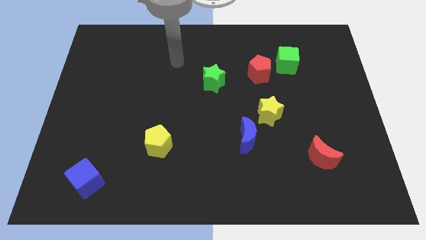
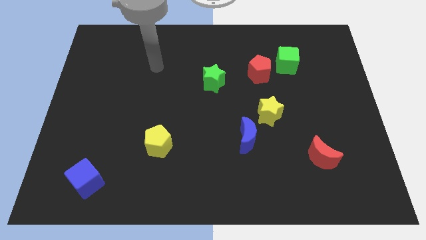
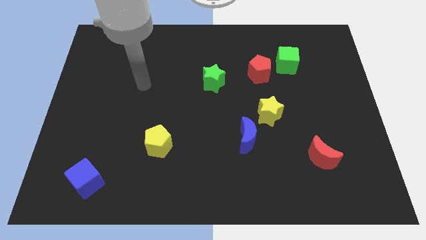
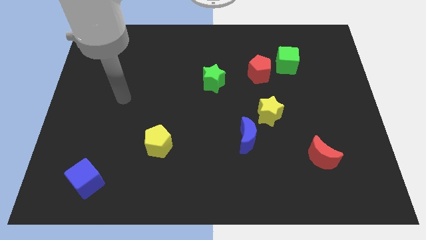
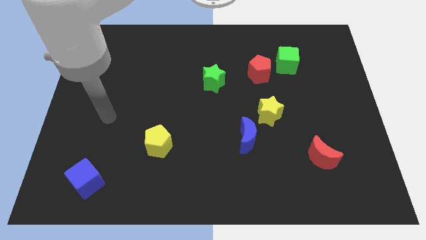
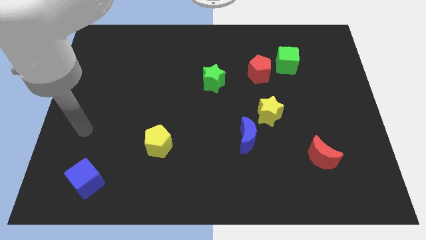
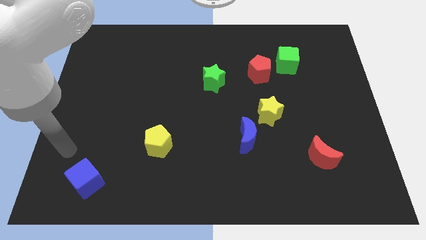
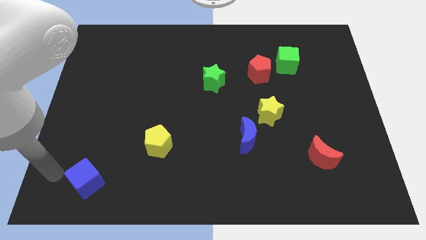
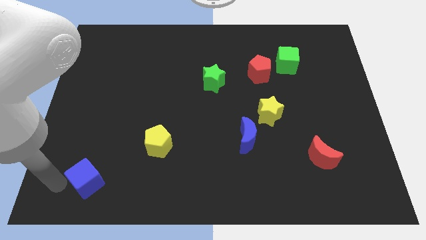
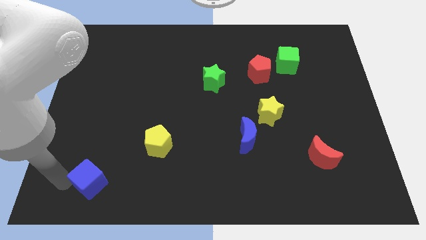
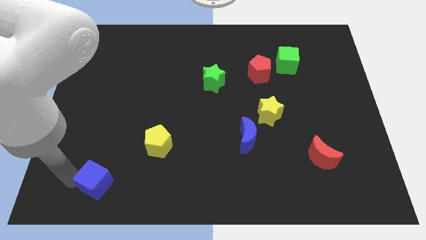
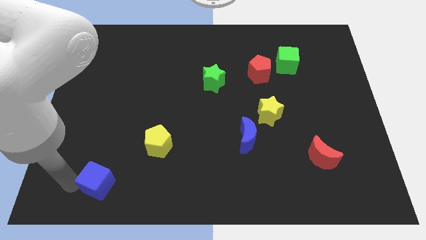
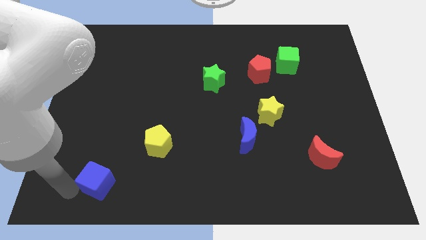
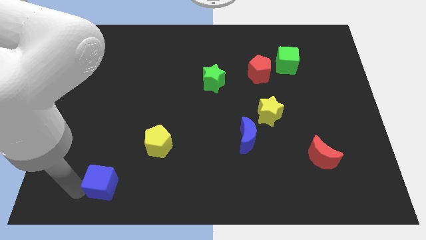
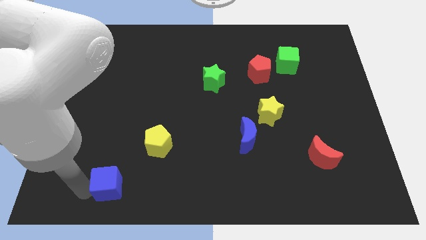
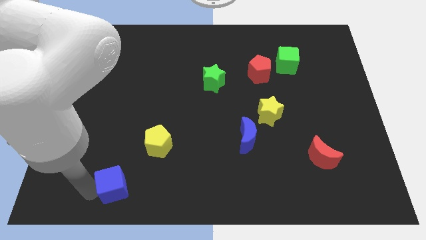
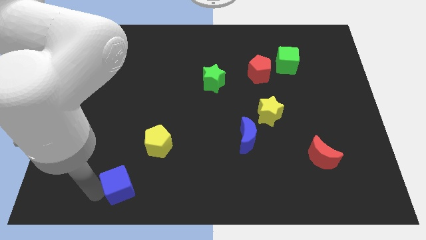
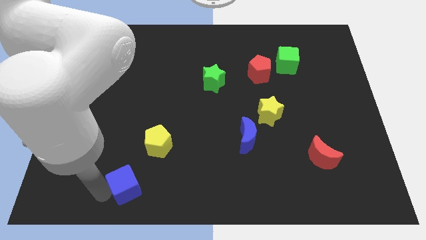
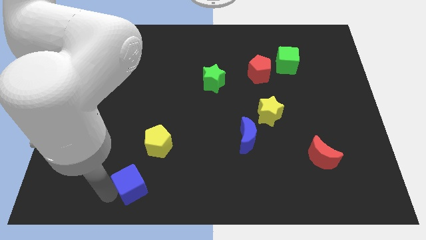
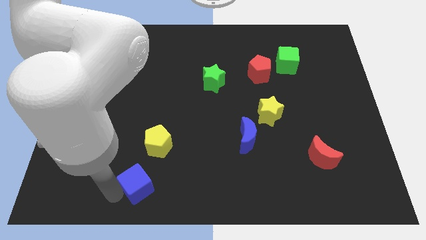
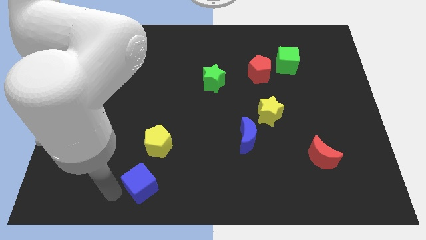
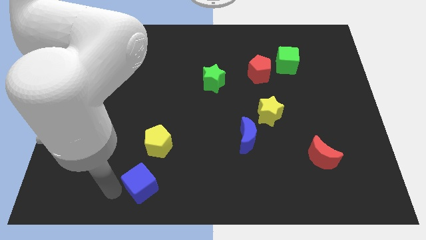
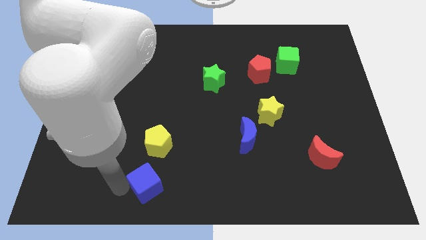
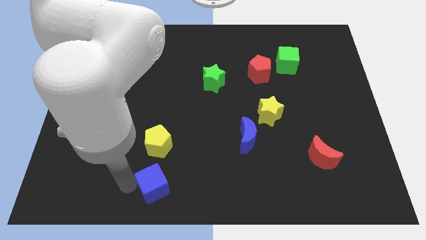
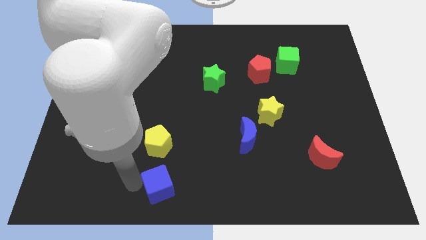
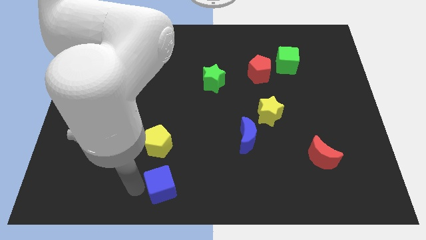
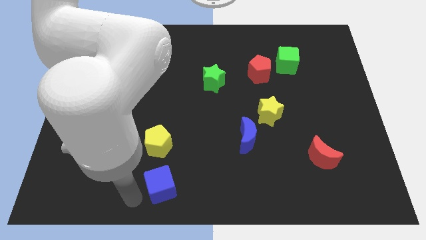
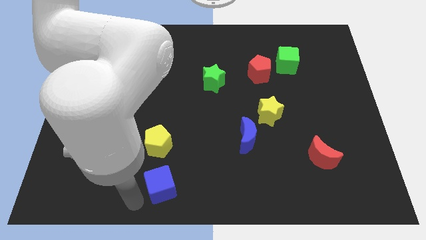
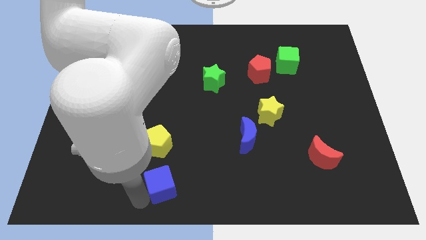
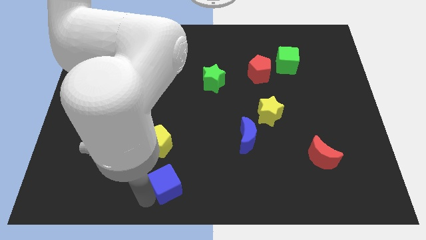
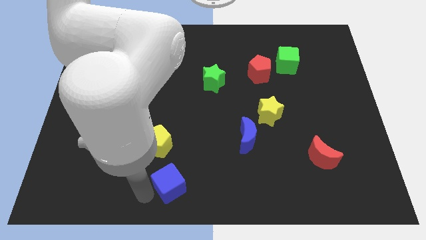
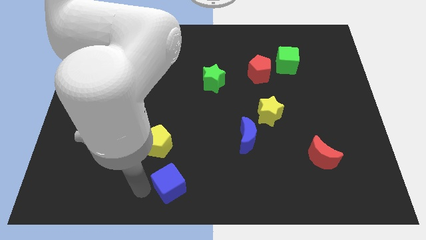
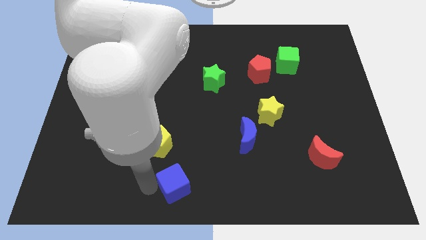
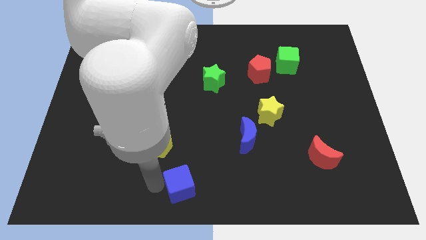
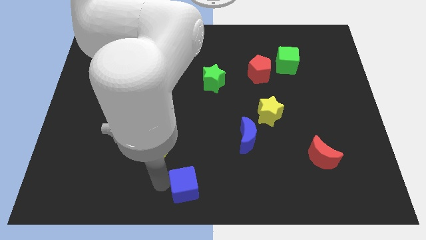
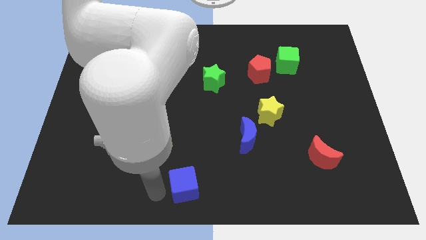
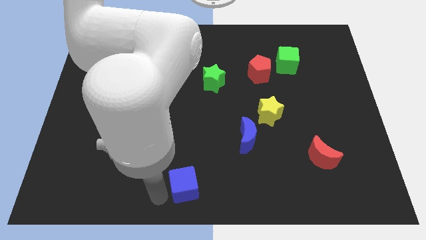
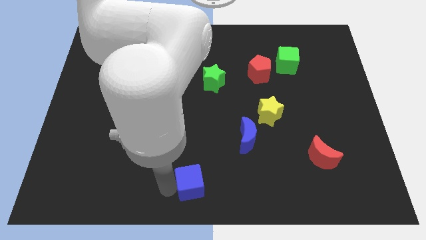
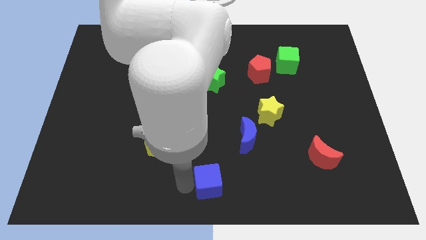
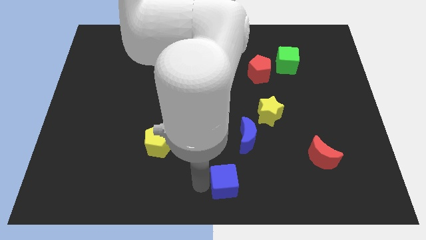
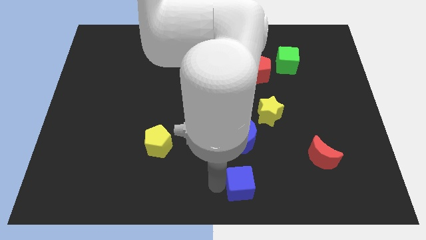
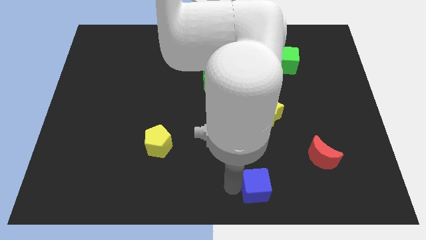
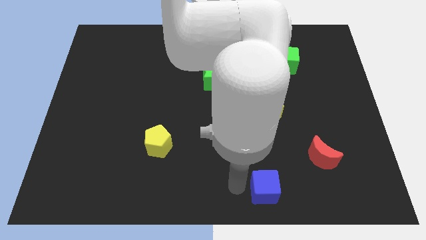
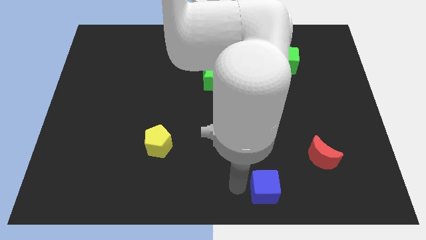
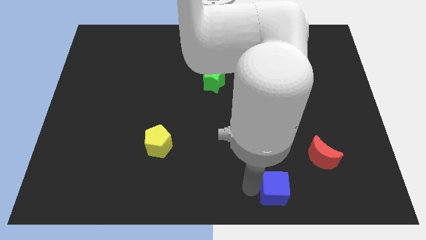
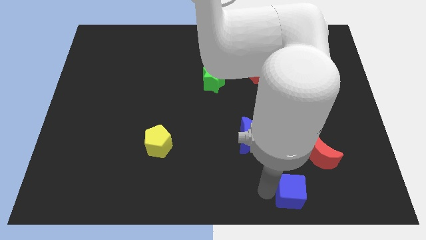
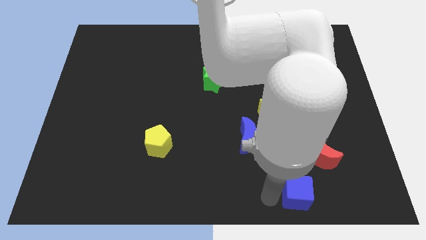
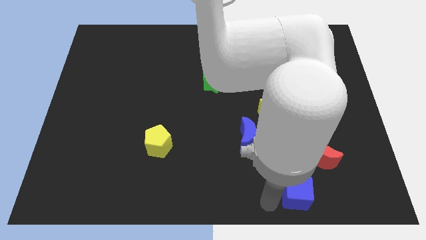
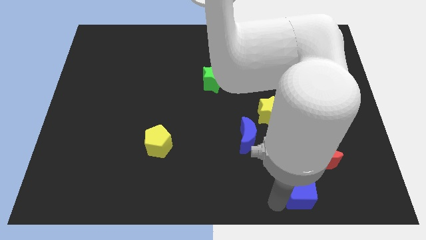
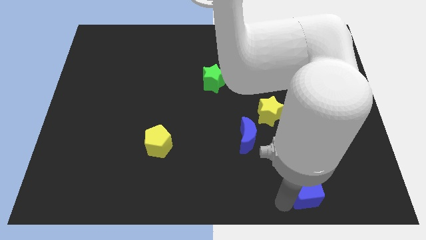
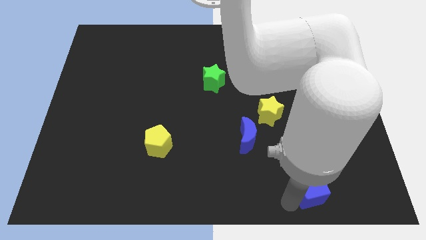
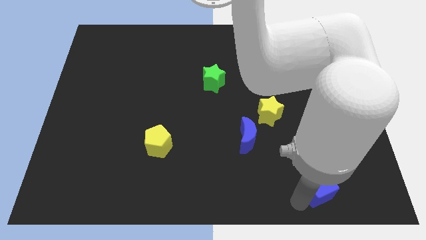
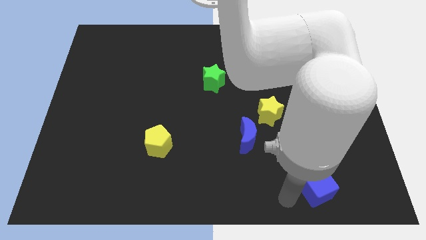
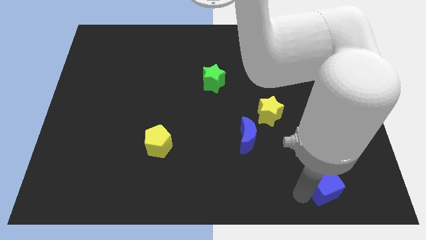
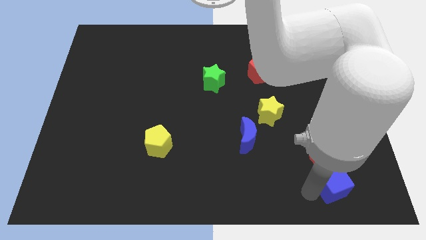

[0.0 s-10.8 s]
push the blue cube to the bottom right side of the red moon
